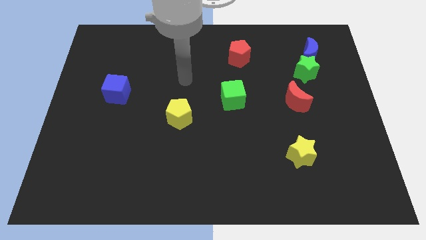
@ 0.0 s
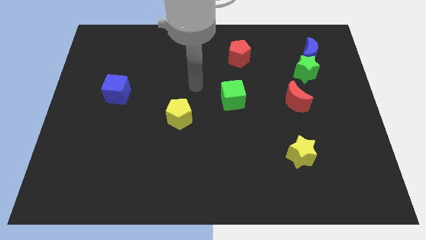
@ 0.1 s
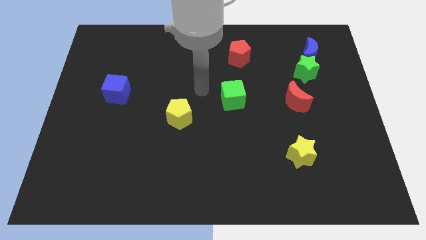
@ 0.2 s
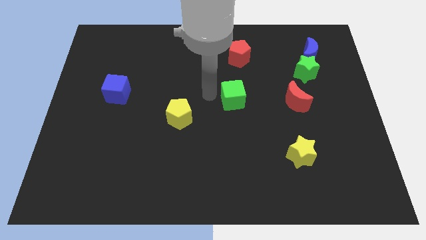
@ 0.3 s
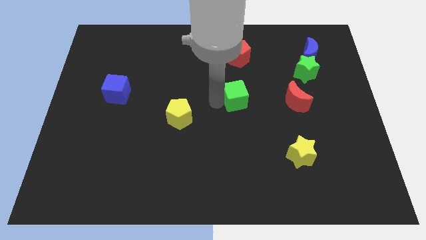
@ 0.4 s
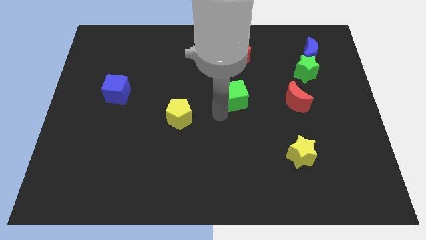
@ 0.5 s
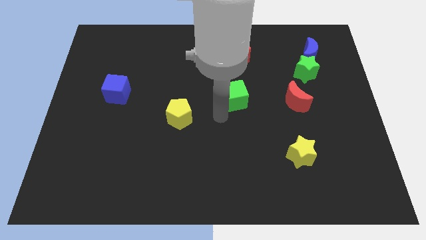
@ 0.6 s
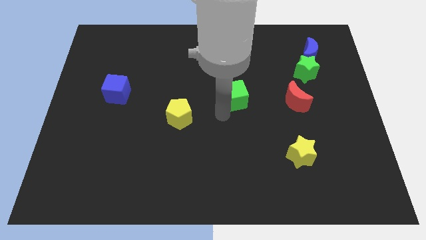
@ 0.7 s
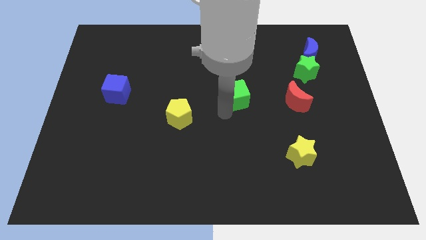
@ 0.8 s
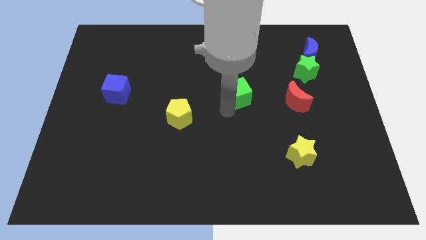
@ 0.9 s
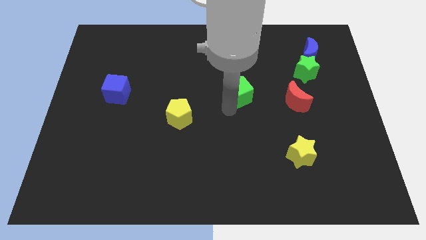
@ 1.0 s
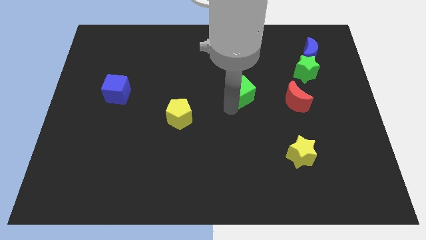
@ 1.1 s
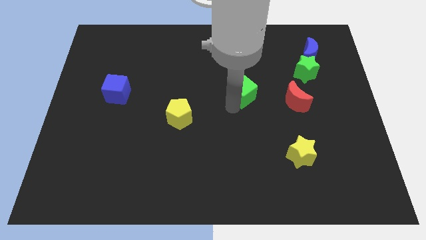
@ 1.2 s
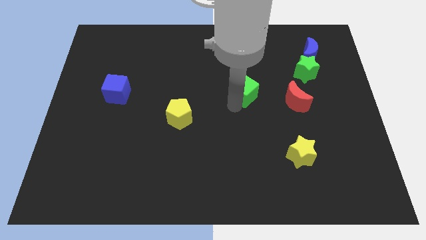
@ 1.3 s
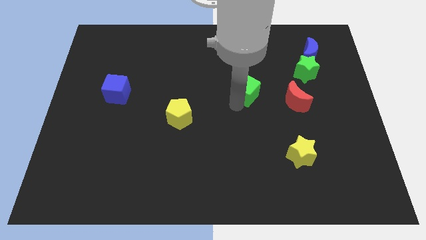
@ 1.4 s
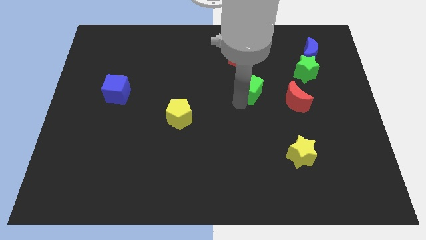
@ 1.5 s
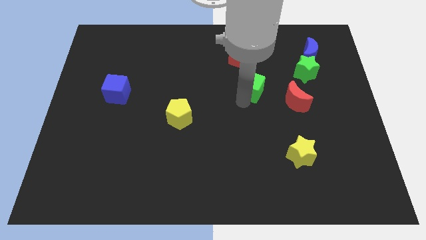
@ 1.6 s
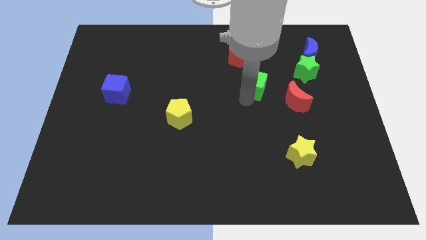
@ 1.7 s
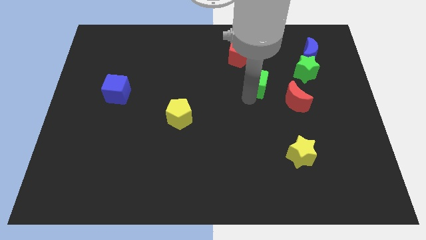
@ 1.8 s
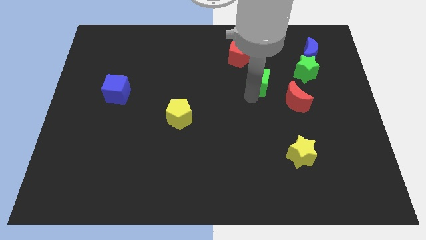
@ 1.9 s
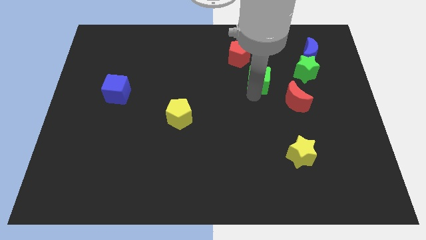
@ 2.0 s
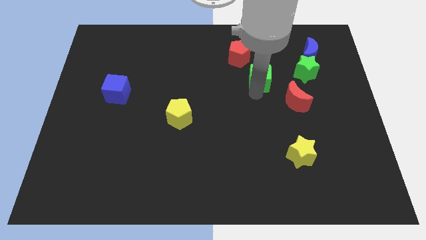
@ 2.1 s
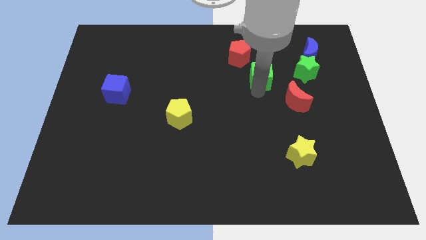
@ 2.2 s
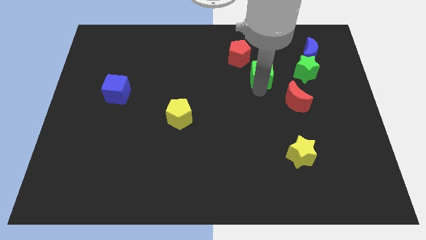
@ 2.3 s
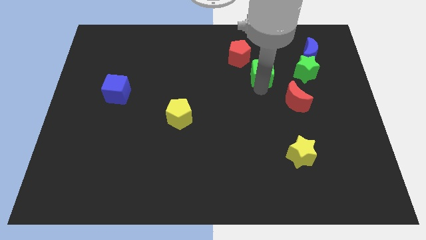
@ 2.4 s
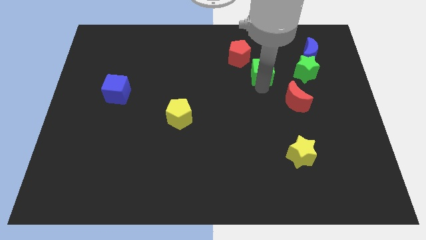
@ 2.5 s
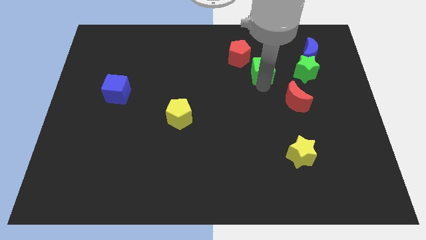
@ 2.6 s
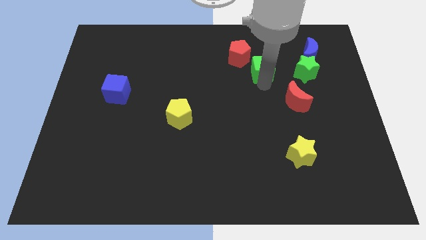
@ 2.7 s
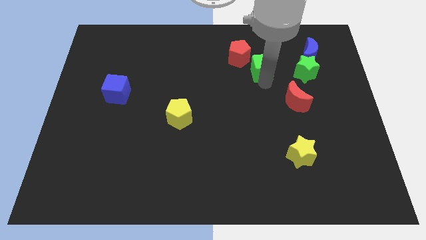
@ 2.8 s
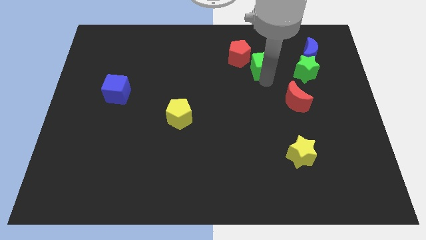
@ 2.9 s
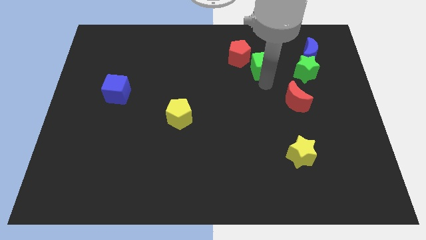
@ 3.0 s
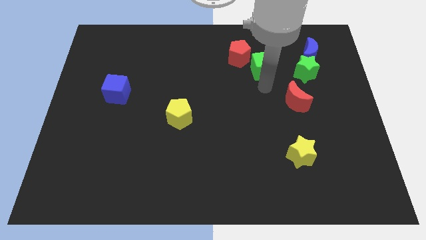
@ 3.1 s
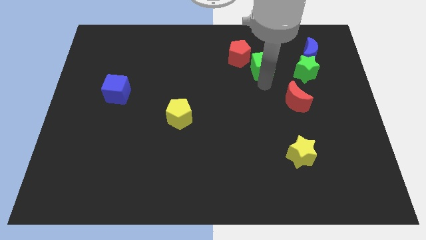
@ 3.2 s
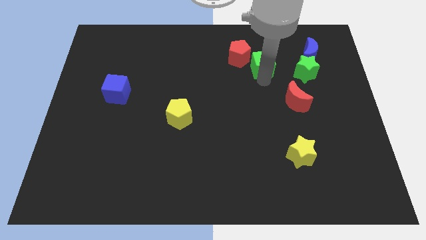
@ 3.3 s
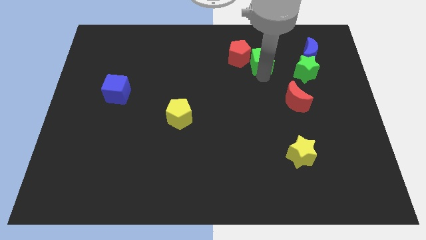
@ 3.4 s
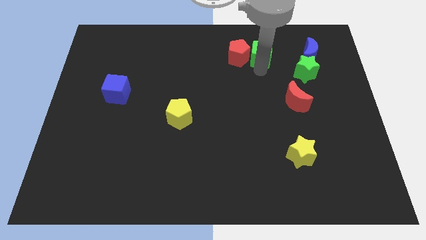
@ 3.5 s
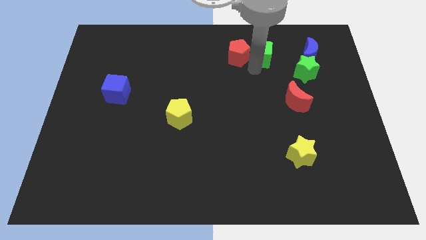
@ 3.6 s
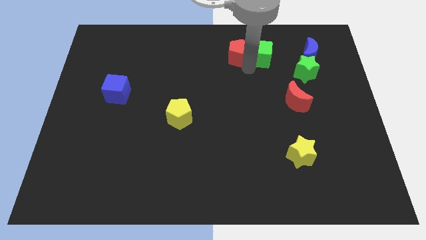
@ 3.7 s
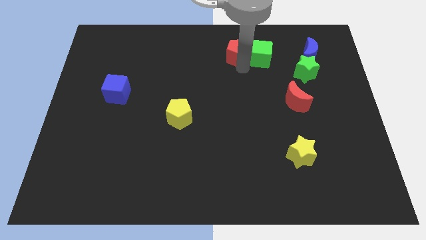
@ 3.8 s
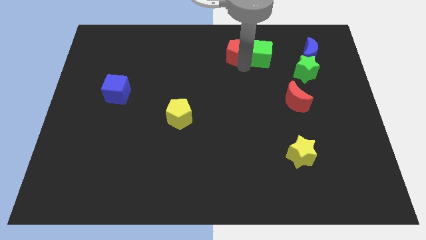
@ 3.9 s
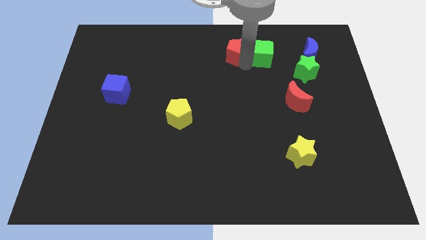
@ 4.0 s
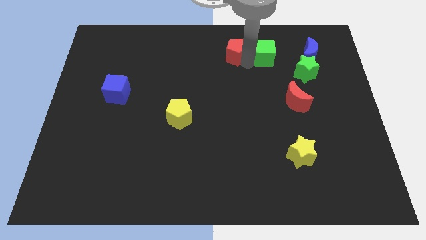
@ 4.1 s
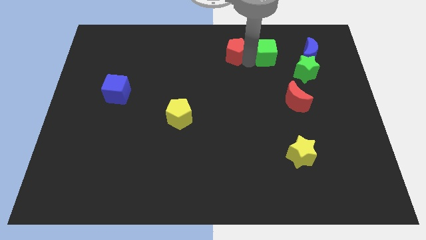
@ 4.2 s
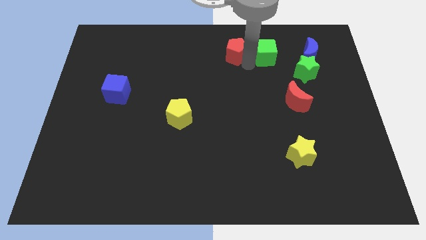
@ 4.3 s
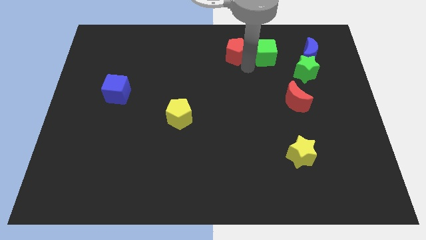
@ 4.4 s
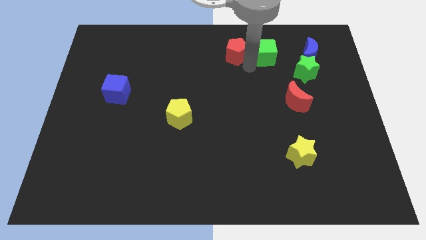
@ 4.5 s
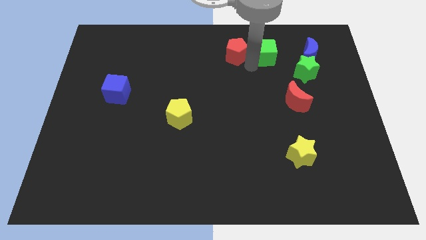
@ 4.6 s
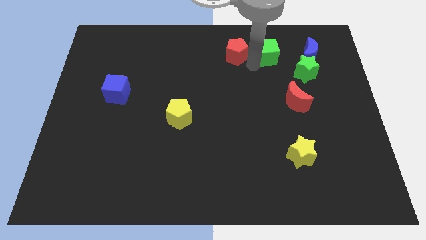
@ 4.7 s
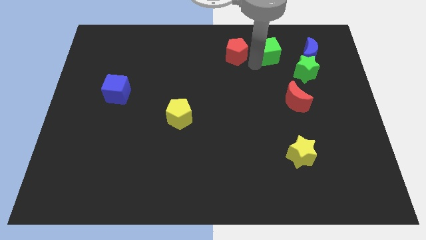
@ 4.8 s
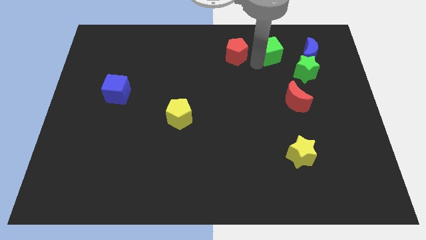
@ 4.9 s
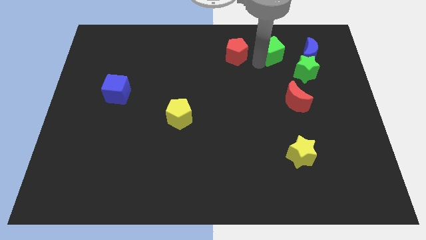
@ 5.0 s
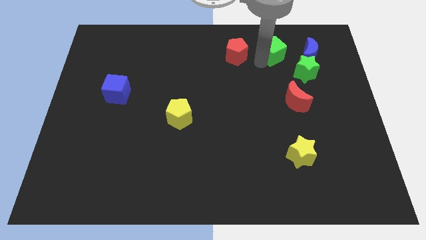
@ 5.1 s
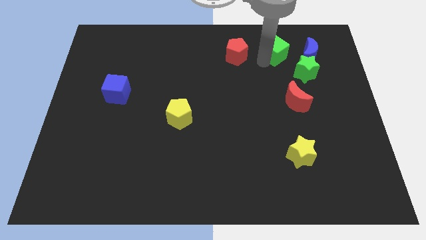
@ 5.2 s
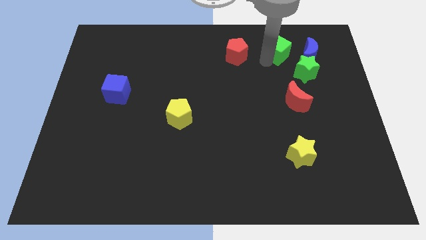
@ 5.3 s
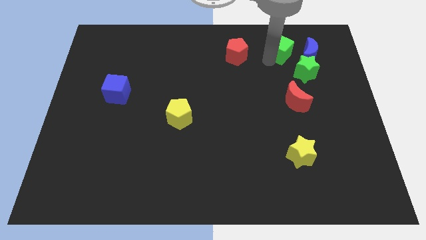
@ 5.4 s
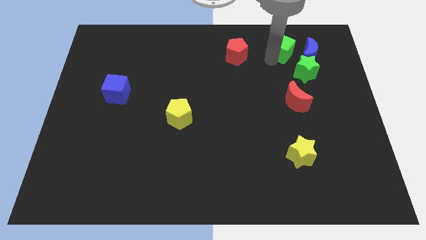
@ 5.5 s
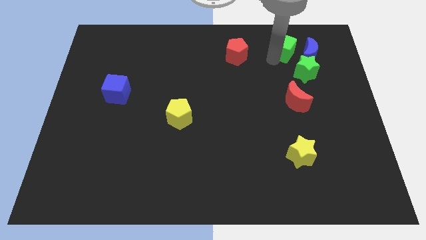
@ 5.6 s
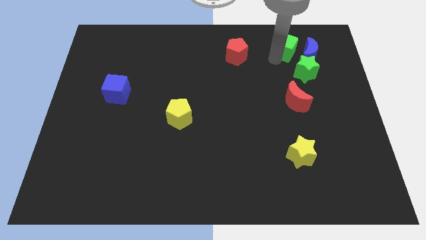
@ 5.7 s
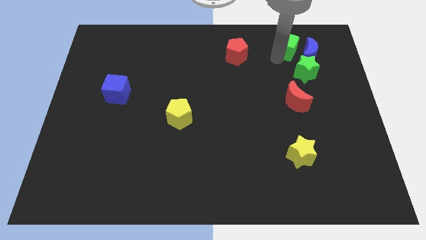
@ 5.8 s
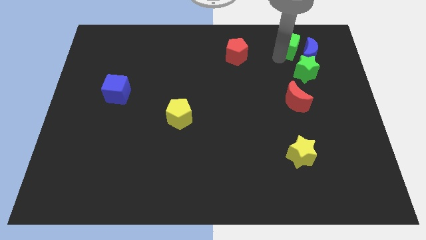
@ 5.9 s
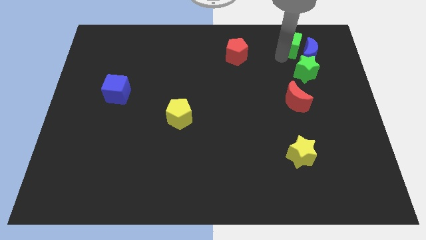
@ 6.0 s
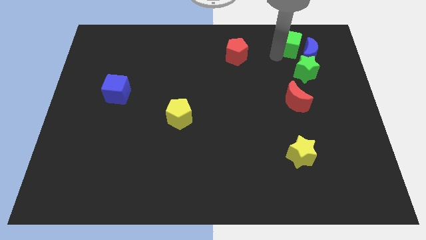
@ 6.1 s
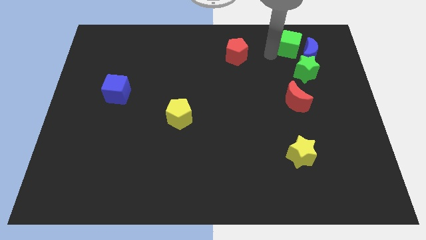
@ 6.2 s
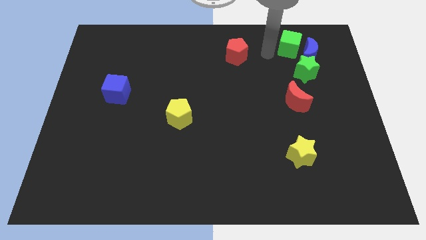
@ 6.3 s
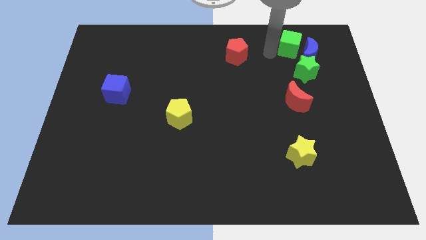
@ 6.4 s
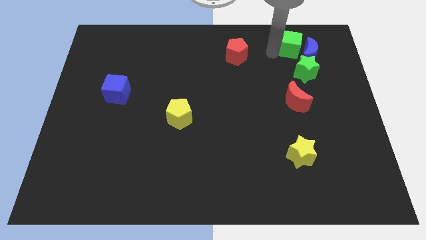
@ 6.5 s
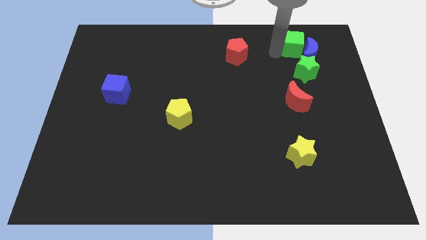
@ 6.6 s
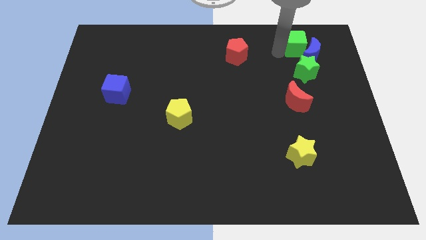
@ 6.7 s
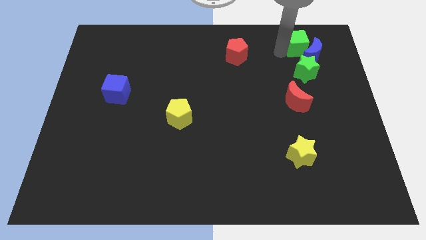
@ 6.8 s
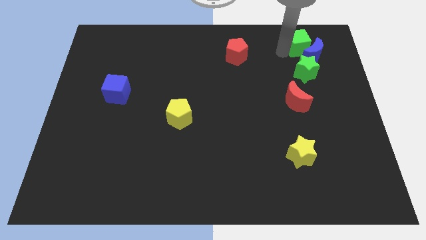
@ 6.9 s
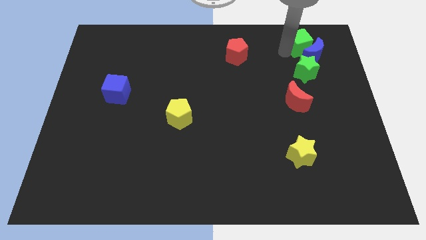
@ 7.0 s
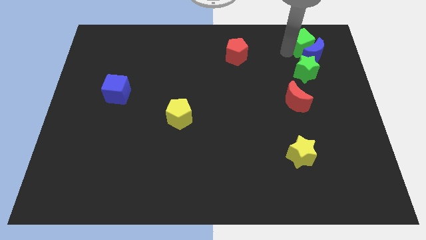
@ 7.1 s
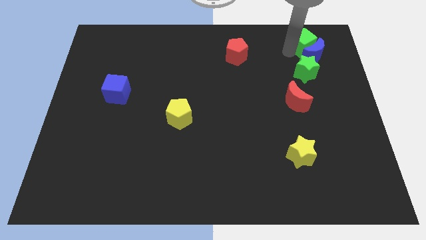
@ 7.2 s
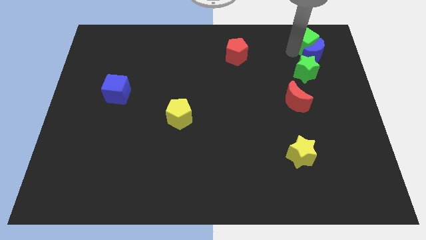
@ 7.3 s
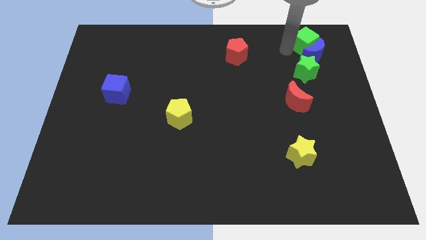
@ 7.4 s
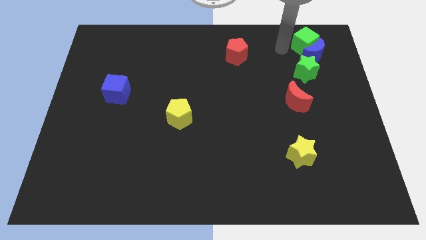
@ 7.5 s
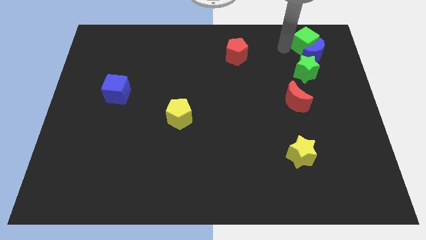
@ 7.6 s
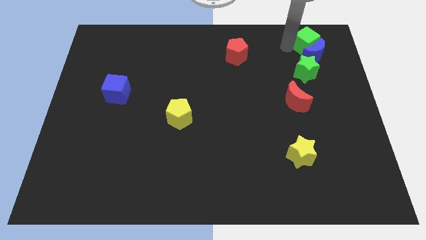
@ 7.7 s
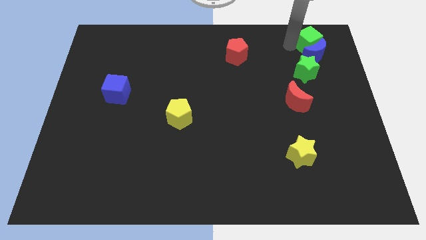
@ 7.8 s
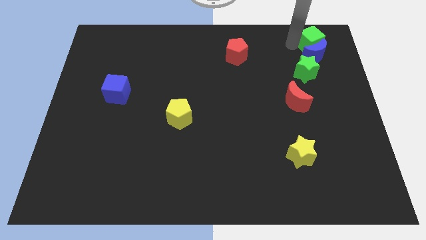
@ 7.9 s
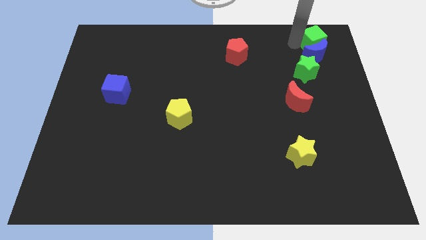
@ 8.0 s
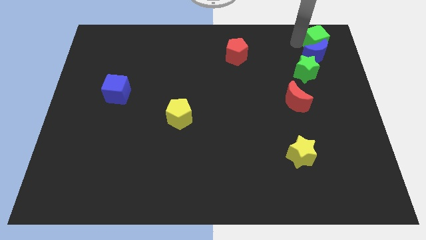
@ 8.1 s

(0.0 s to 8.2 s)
push the green cube to the upper right corner
